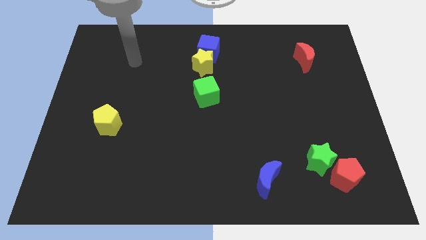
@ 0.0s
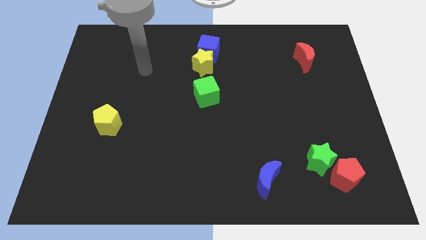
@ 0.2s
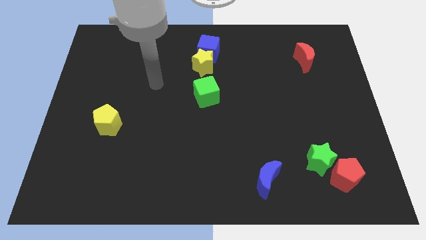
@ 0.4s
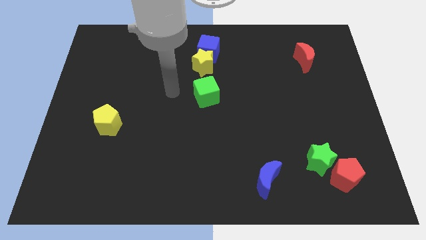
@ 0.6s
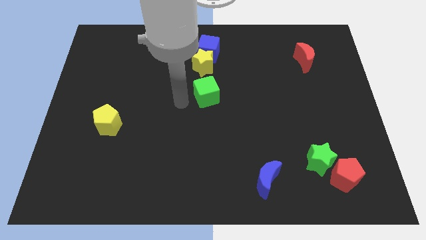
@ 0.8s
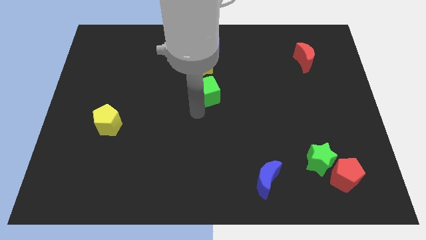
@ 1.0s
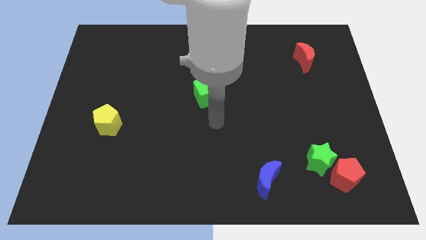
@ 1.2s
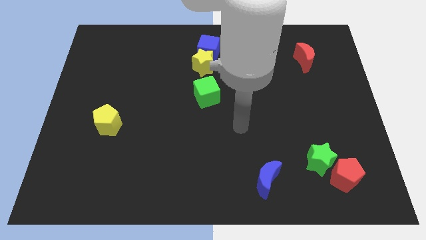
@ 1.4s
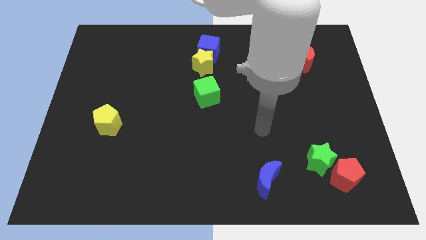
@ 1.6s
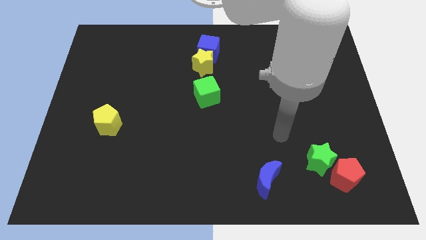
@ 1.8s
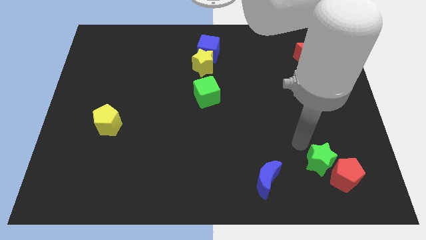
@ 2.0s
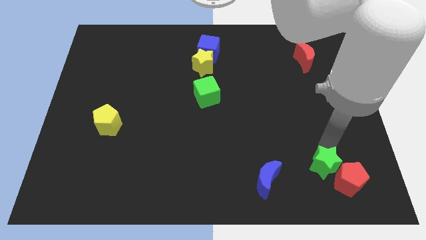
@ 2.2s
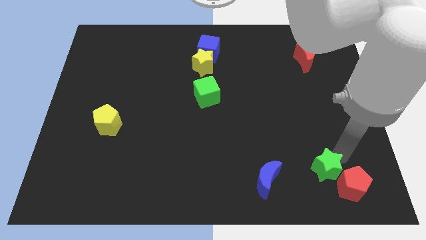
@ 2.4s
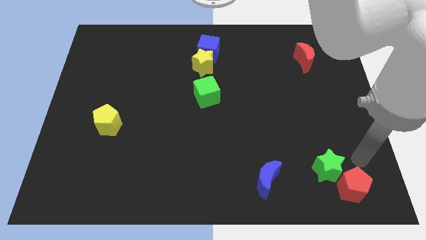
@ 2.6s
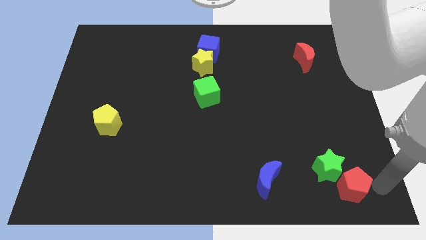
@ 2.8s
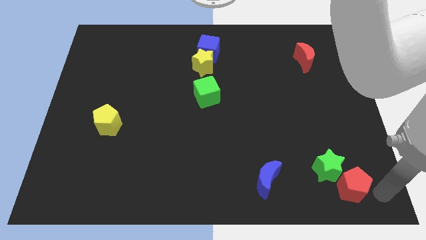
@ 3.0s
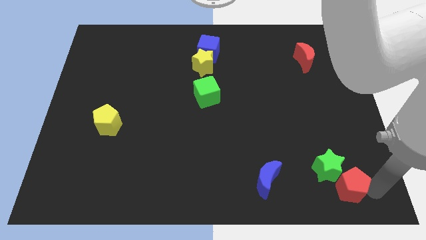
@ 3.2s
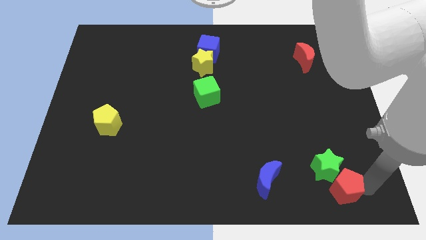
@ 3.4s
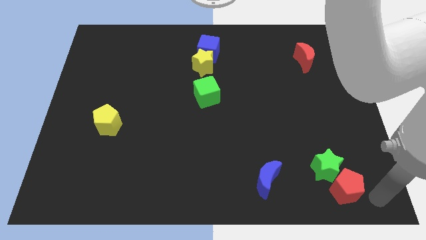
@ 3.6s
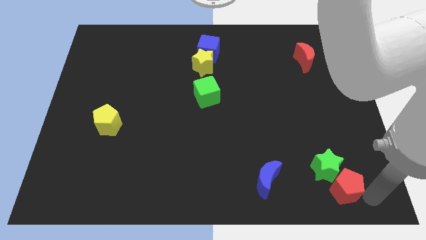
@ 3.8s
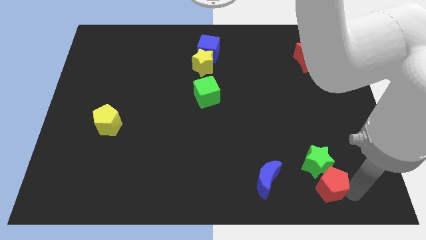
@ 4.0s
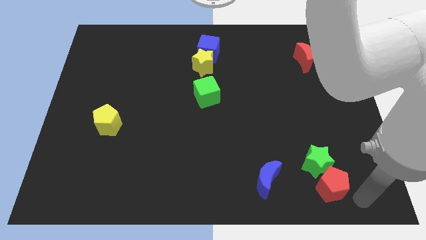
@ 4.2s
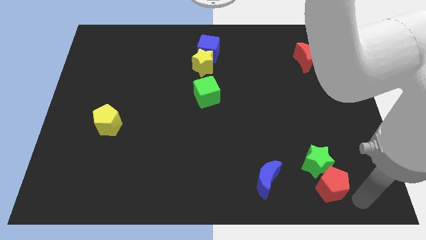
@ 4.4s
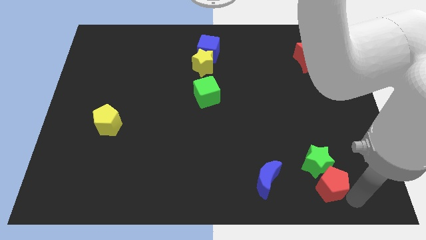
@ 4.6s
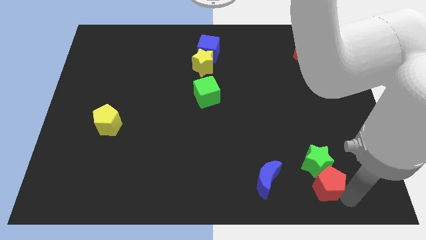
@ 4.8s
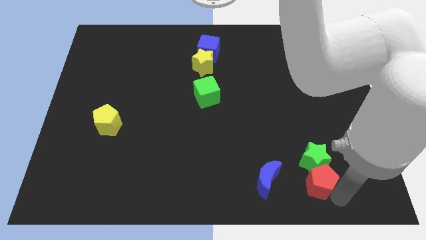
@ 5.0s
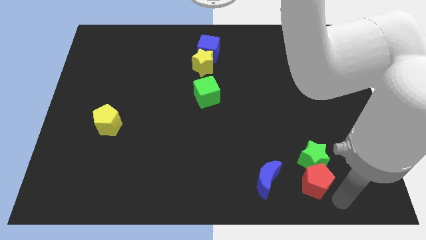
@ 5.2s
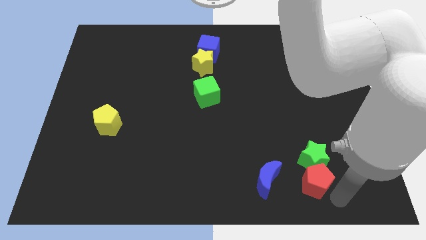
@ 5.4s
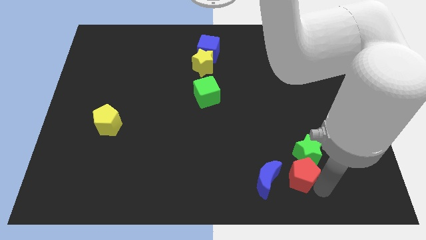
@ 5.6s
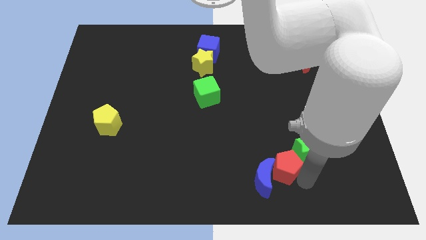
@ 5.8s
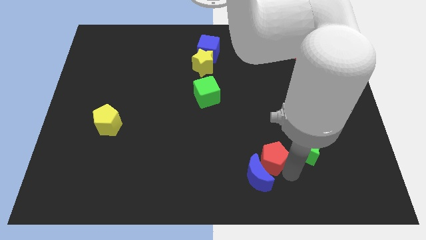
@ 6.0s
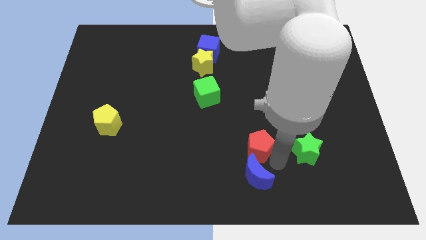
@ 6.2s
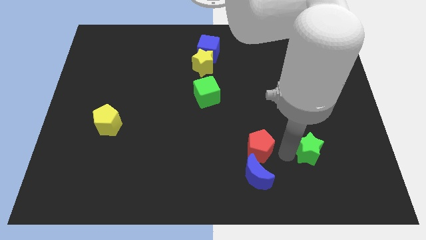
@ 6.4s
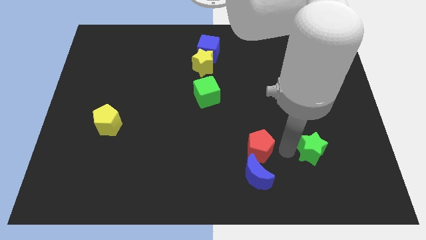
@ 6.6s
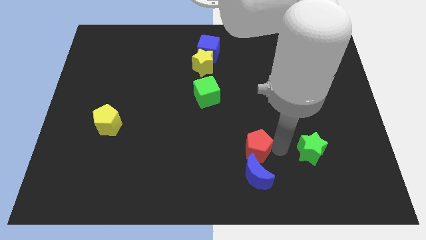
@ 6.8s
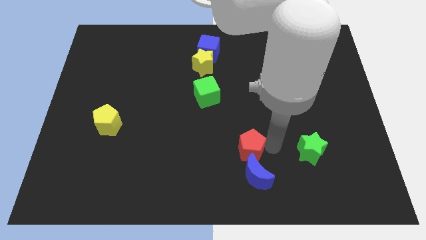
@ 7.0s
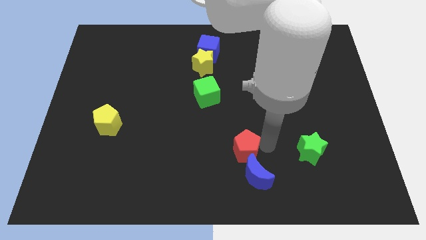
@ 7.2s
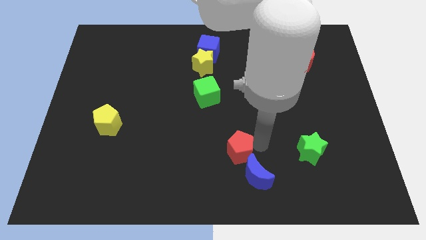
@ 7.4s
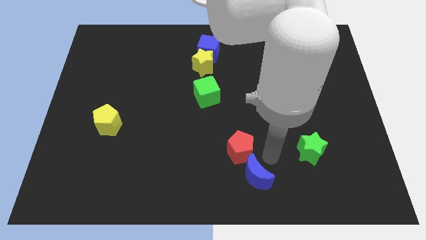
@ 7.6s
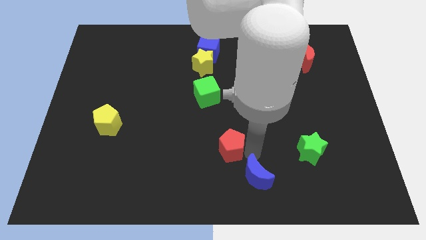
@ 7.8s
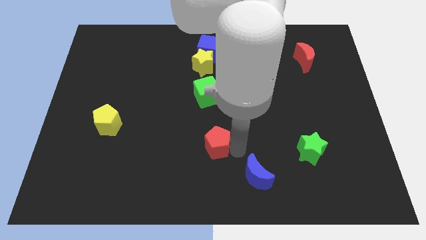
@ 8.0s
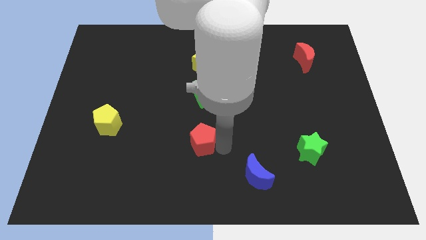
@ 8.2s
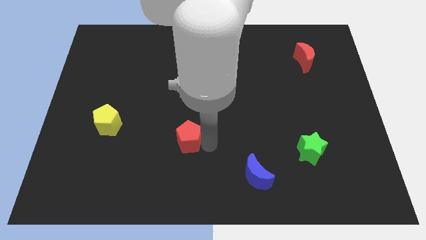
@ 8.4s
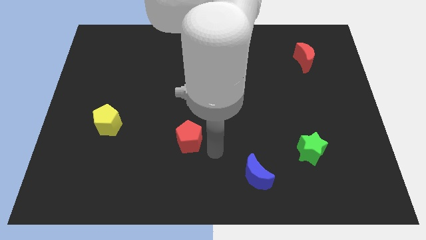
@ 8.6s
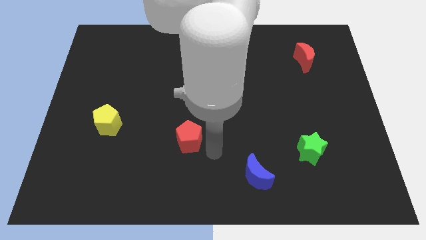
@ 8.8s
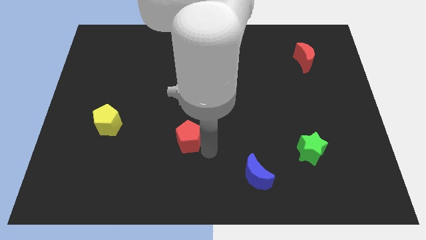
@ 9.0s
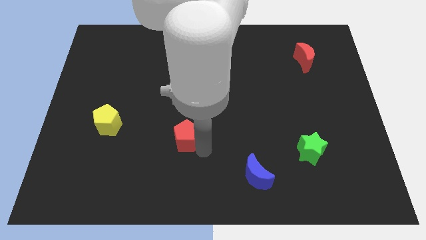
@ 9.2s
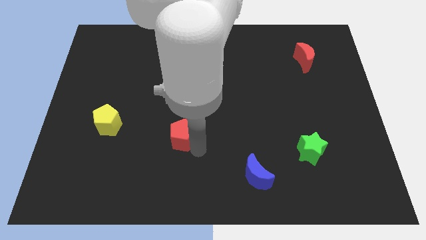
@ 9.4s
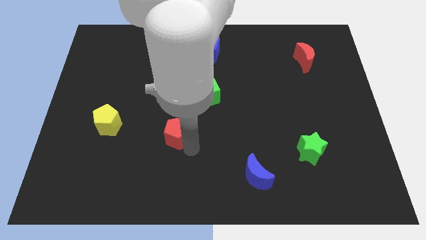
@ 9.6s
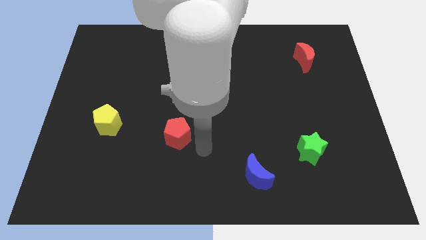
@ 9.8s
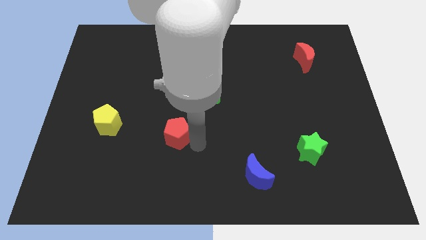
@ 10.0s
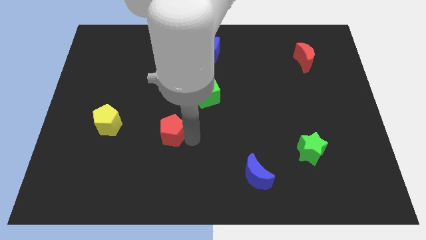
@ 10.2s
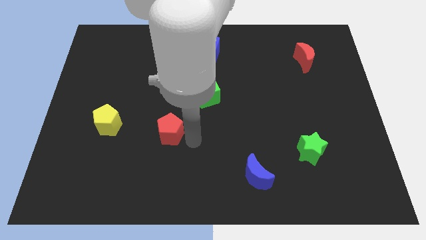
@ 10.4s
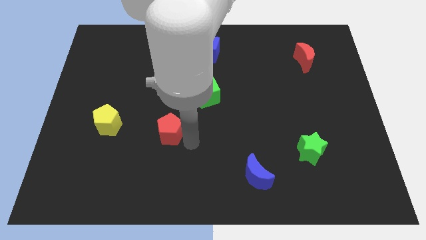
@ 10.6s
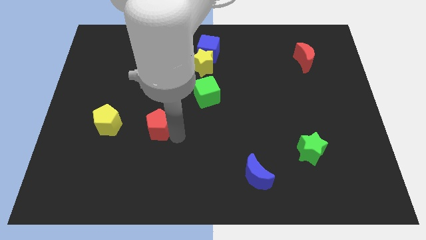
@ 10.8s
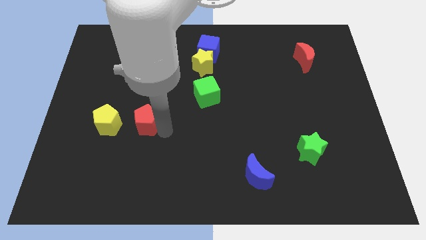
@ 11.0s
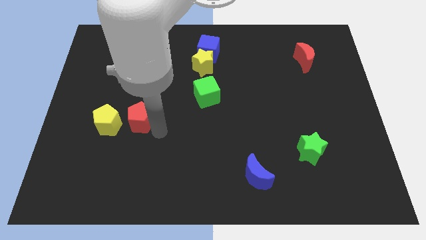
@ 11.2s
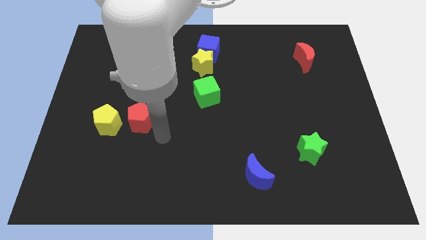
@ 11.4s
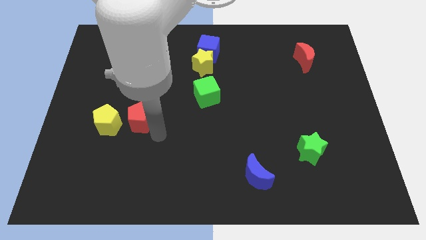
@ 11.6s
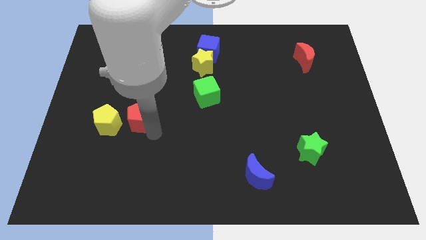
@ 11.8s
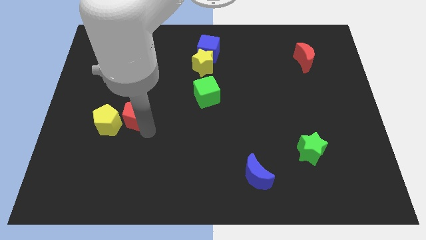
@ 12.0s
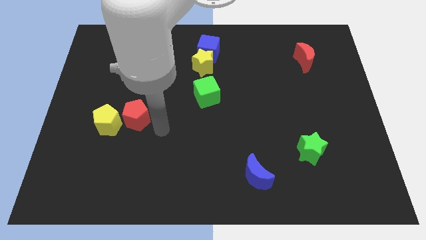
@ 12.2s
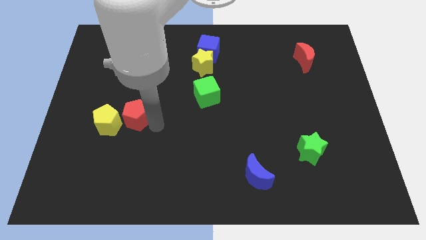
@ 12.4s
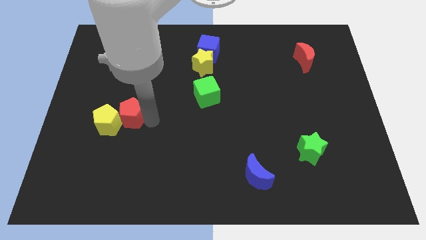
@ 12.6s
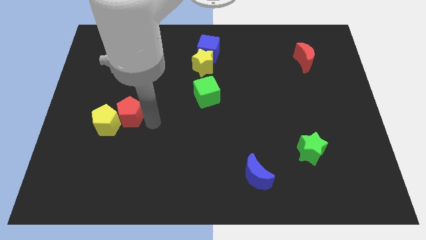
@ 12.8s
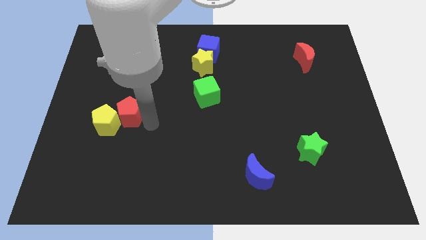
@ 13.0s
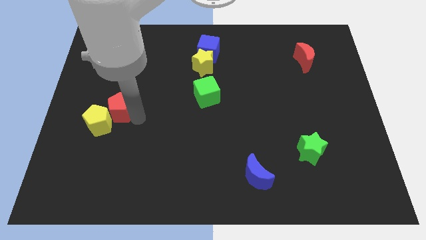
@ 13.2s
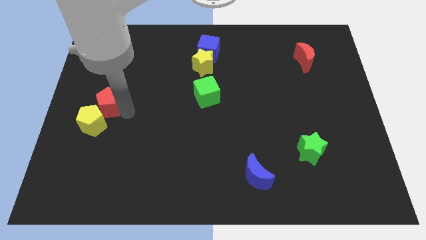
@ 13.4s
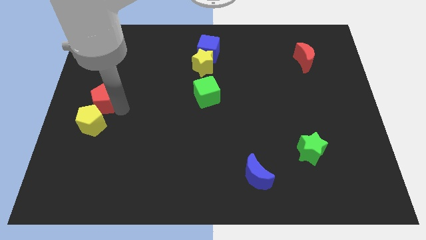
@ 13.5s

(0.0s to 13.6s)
put the red pentagon to the center left

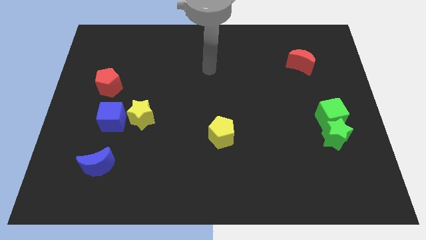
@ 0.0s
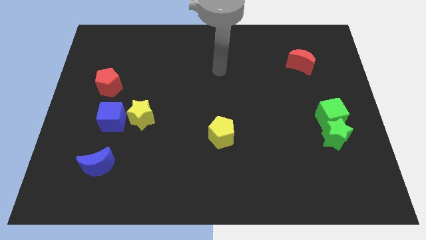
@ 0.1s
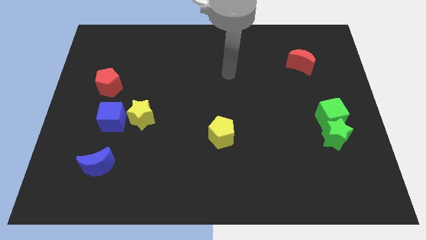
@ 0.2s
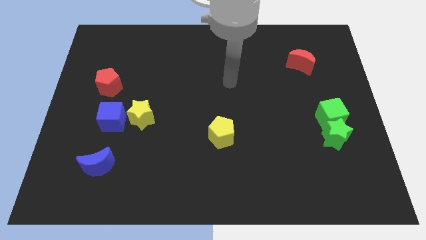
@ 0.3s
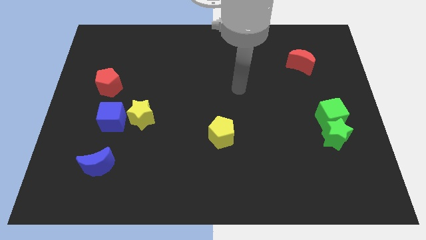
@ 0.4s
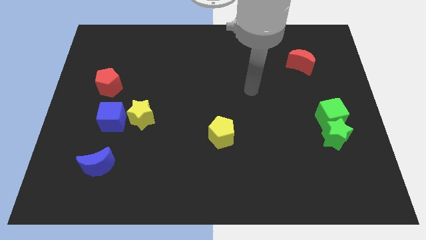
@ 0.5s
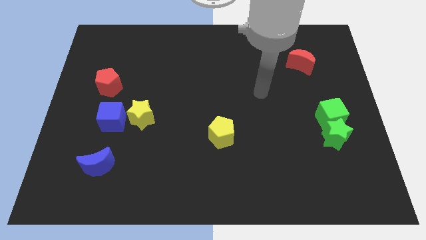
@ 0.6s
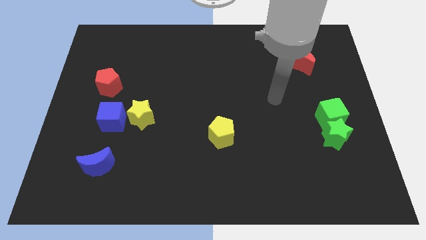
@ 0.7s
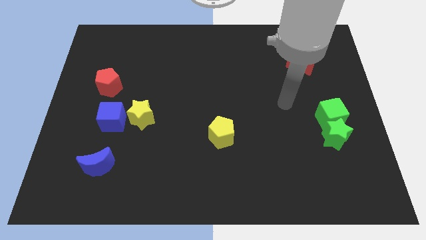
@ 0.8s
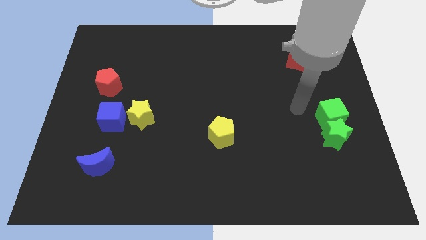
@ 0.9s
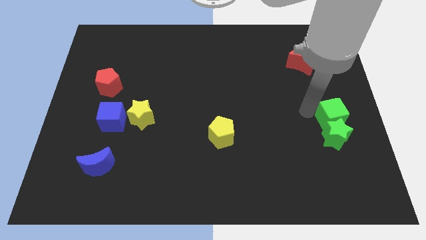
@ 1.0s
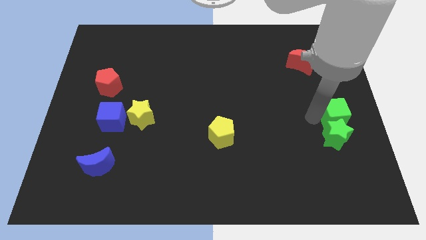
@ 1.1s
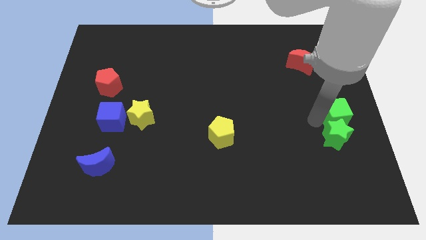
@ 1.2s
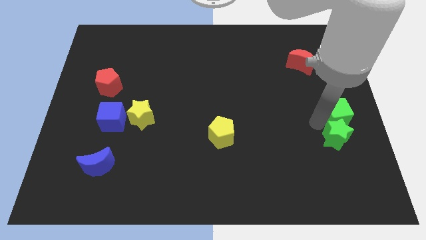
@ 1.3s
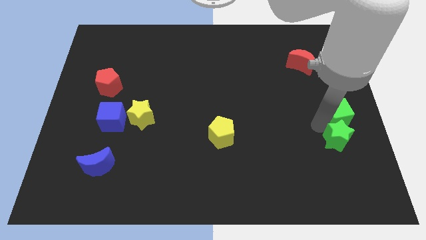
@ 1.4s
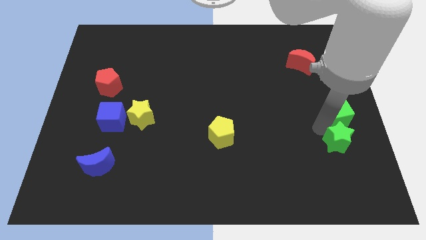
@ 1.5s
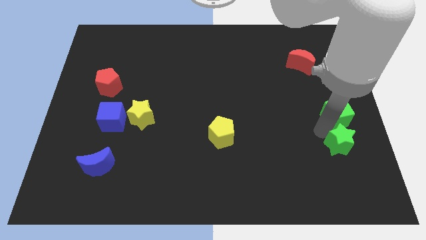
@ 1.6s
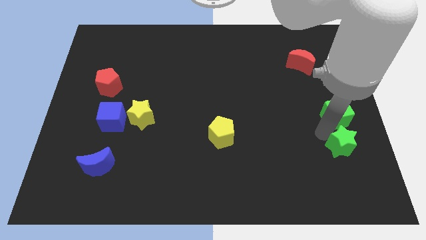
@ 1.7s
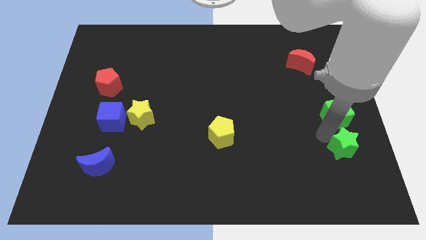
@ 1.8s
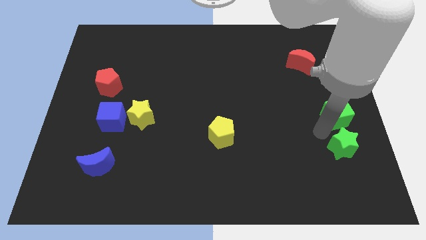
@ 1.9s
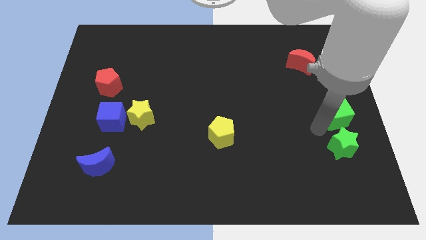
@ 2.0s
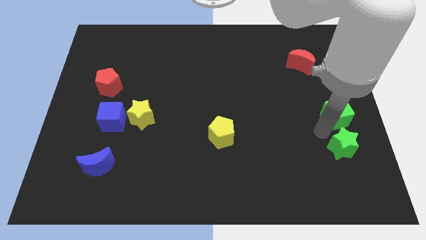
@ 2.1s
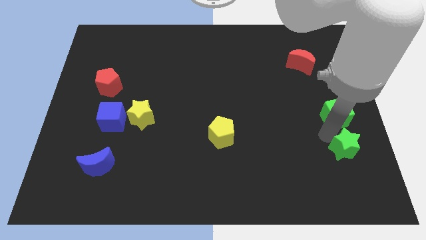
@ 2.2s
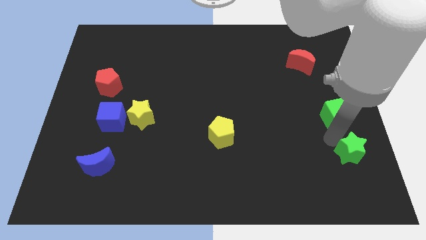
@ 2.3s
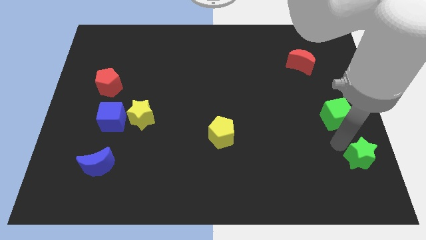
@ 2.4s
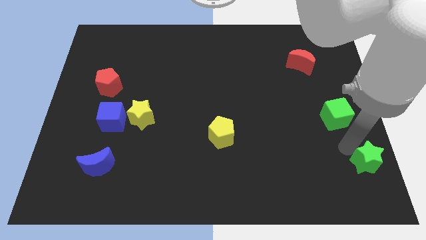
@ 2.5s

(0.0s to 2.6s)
move the green star to the bottom right of the board
